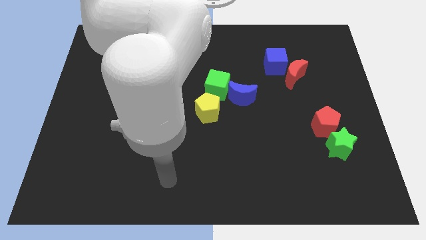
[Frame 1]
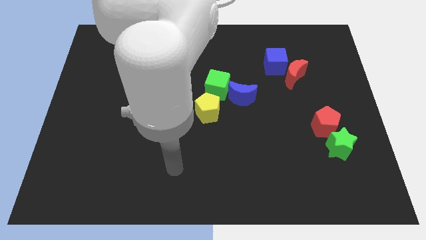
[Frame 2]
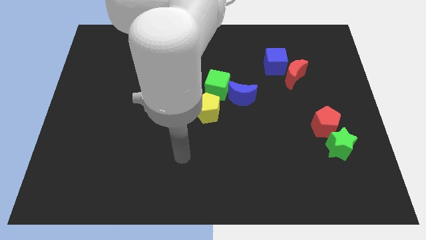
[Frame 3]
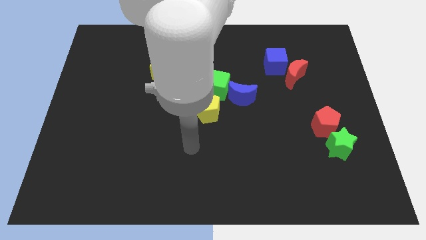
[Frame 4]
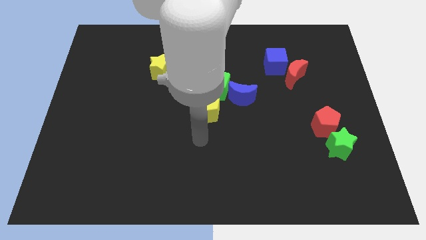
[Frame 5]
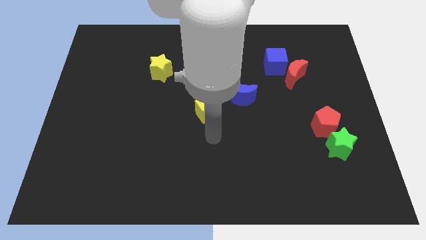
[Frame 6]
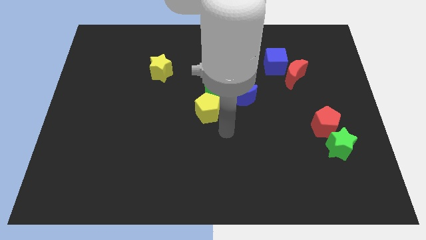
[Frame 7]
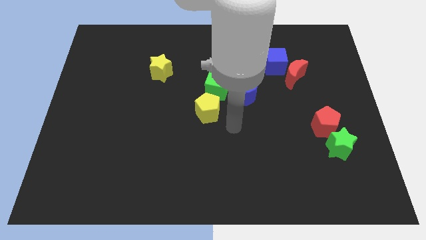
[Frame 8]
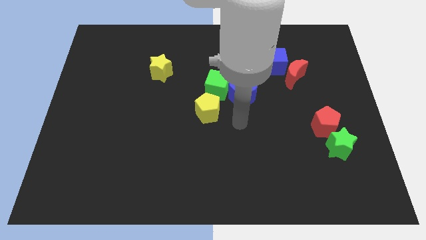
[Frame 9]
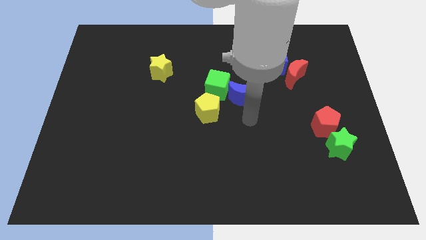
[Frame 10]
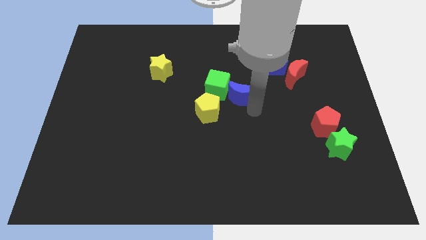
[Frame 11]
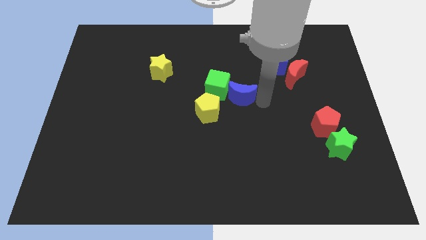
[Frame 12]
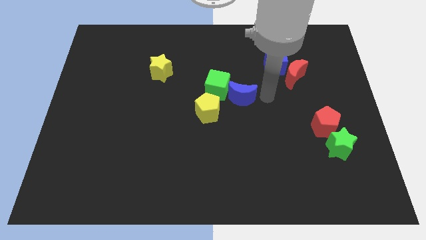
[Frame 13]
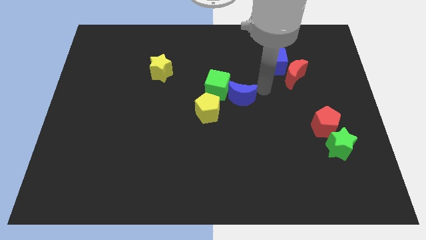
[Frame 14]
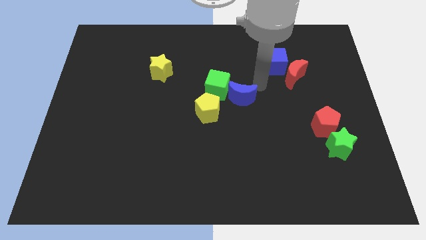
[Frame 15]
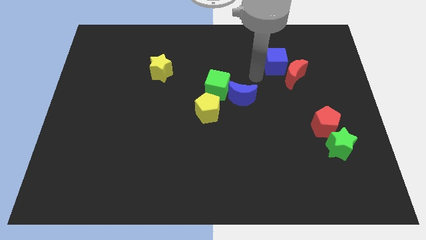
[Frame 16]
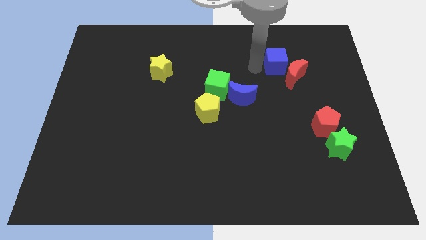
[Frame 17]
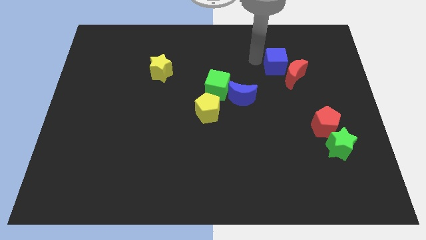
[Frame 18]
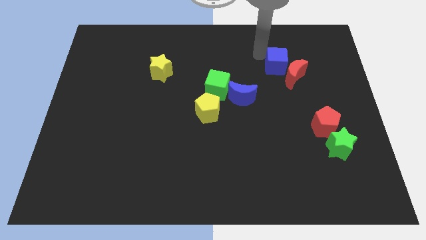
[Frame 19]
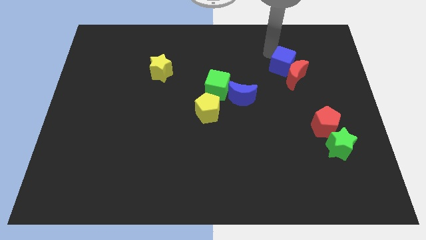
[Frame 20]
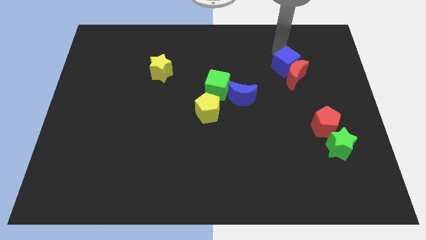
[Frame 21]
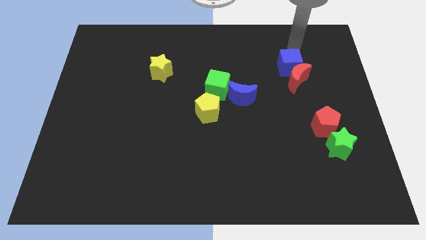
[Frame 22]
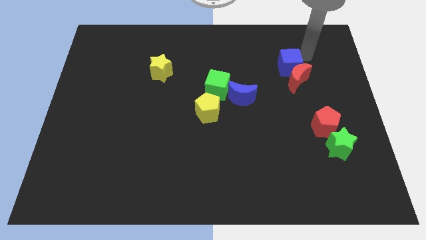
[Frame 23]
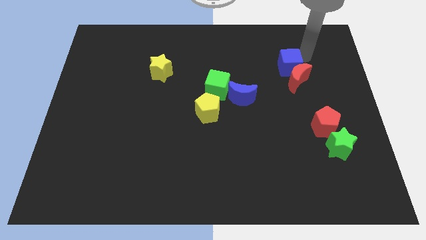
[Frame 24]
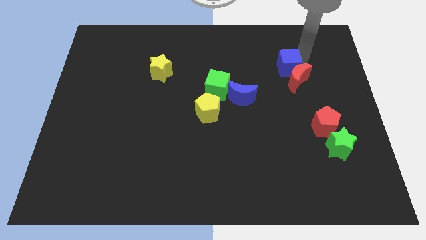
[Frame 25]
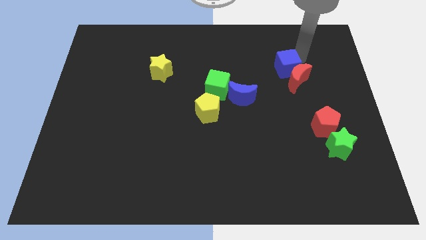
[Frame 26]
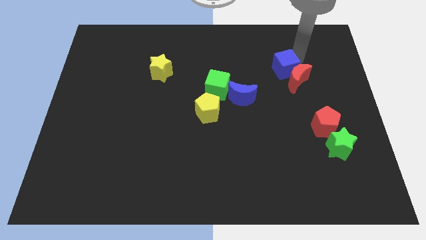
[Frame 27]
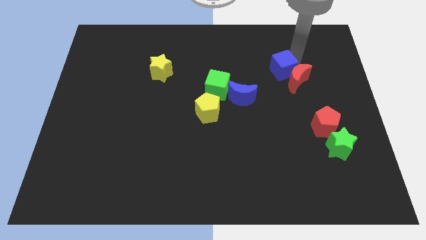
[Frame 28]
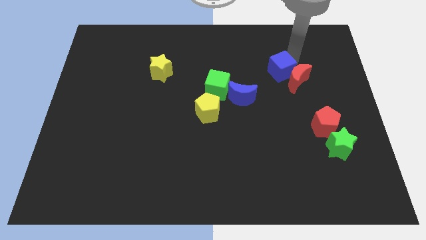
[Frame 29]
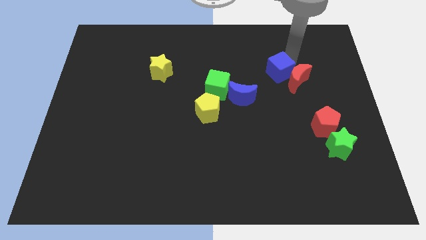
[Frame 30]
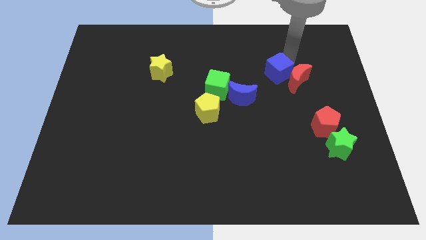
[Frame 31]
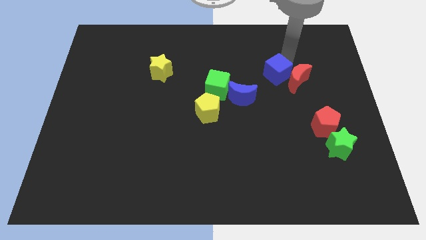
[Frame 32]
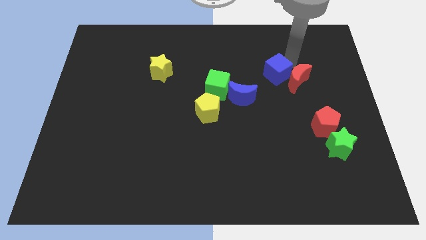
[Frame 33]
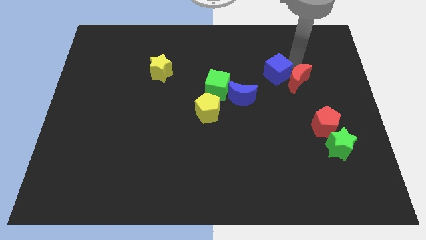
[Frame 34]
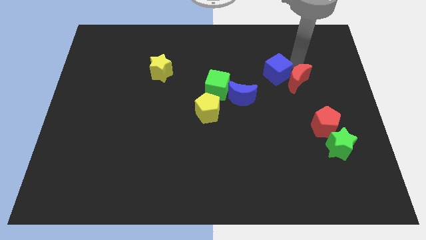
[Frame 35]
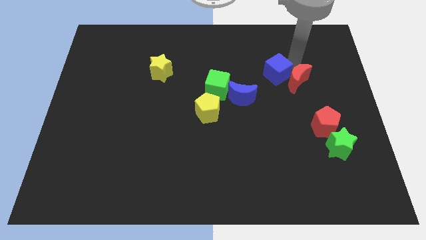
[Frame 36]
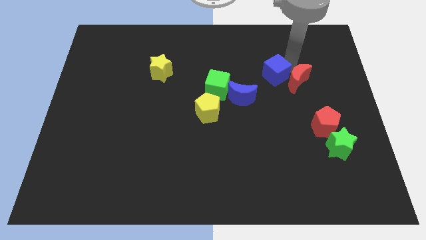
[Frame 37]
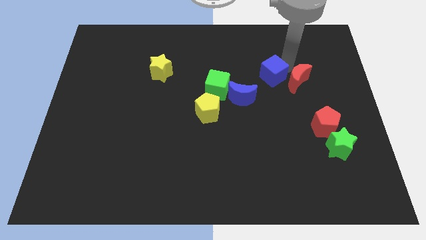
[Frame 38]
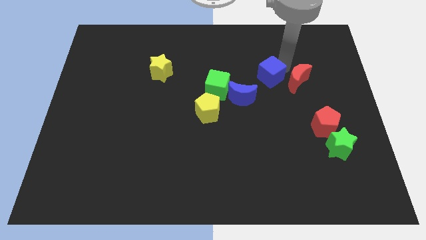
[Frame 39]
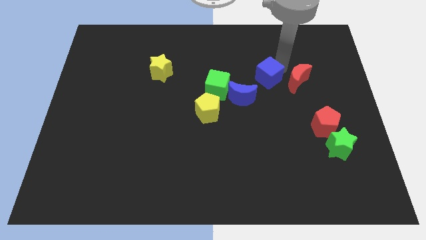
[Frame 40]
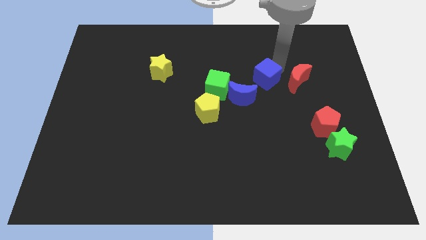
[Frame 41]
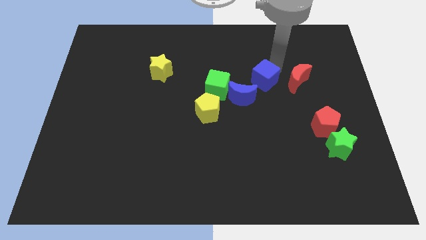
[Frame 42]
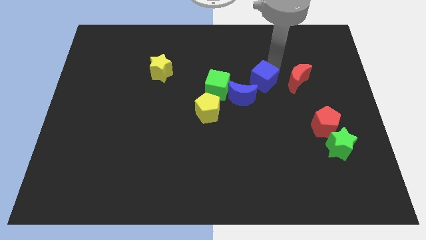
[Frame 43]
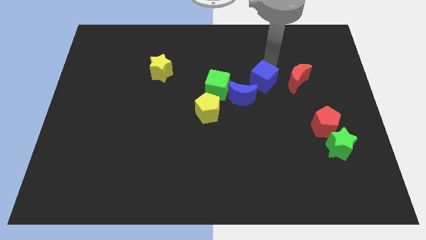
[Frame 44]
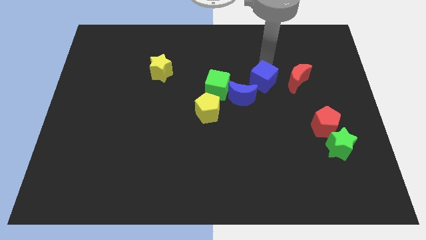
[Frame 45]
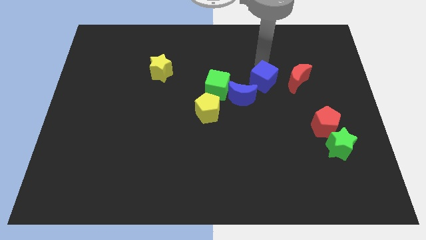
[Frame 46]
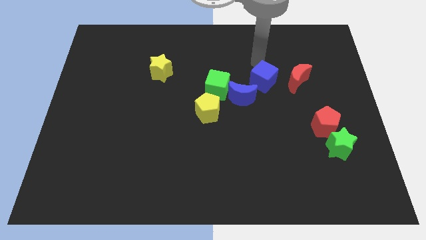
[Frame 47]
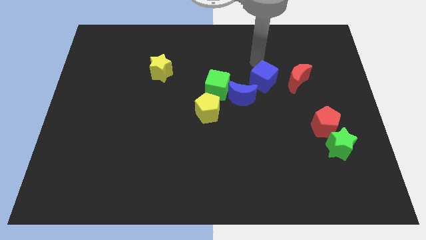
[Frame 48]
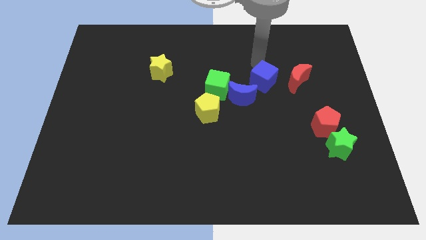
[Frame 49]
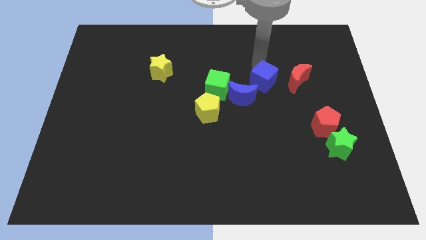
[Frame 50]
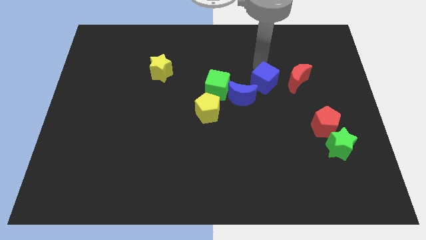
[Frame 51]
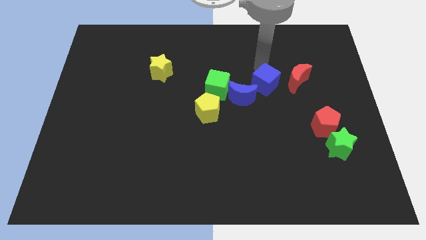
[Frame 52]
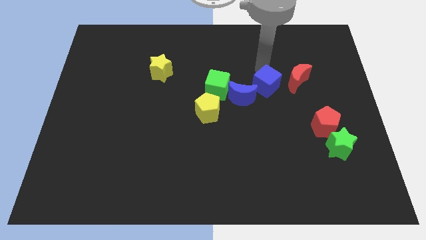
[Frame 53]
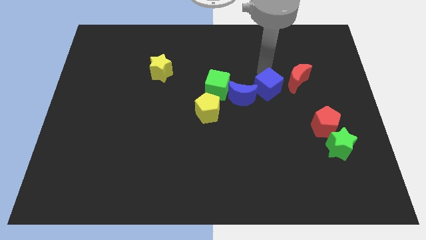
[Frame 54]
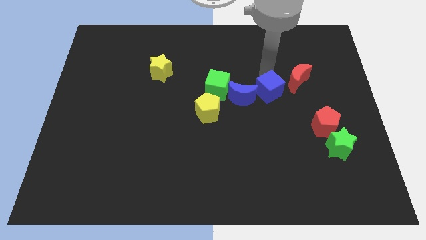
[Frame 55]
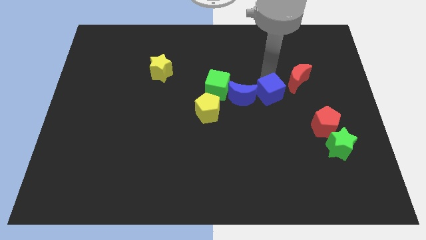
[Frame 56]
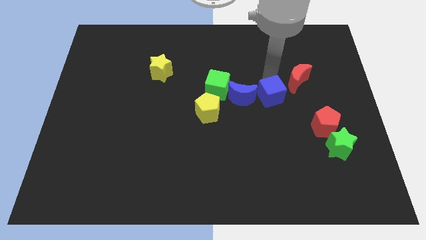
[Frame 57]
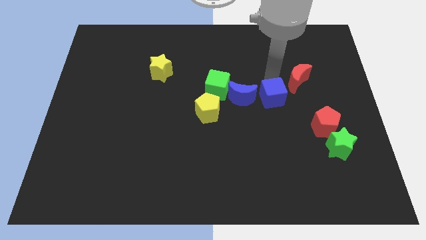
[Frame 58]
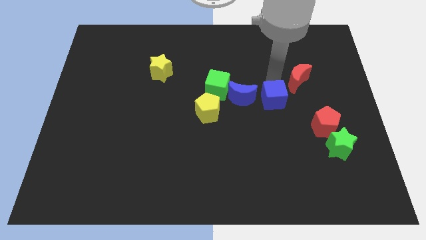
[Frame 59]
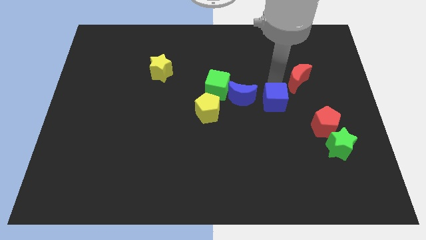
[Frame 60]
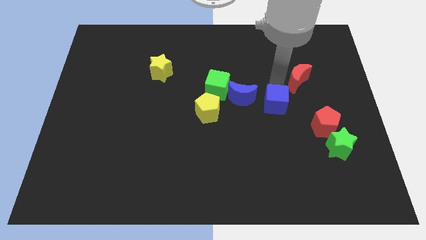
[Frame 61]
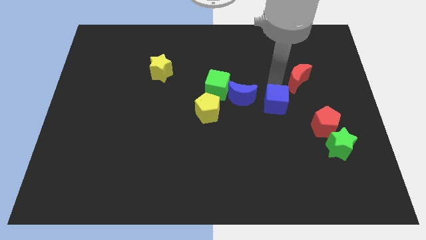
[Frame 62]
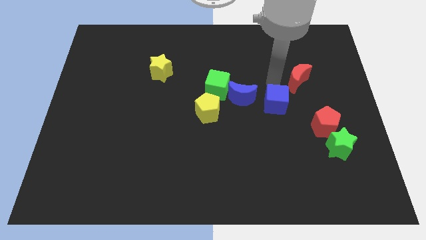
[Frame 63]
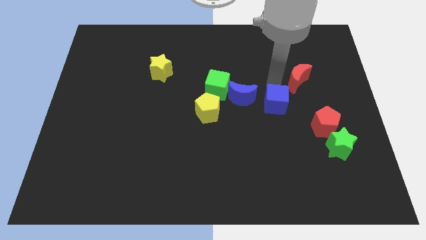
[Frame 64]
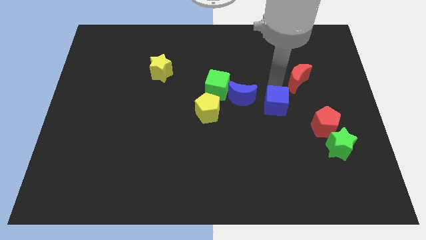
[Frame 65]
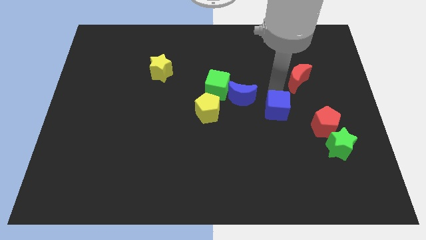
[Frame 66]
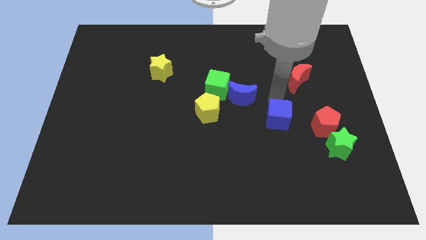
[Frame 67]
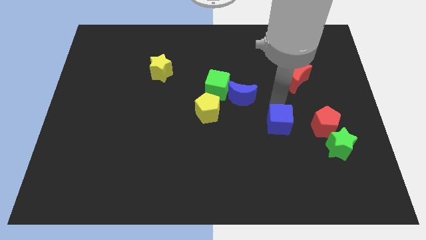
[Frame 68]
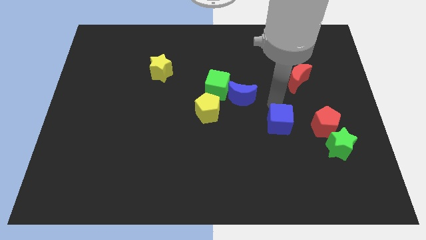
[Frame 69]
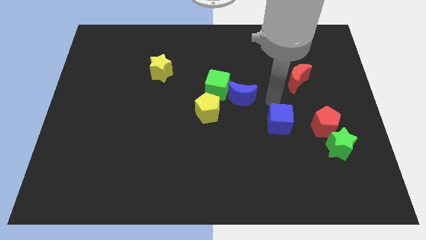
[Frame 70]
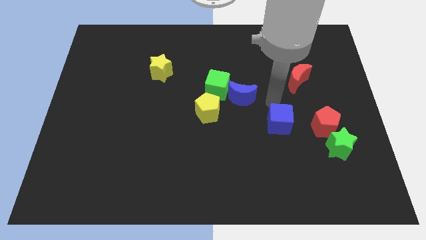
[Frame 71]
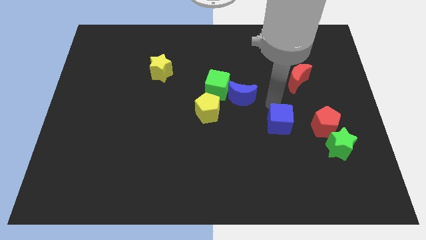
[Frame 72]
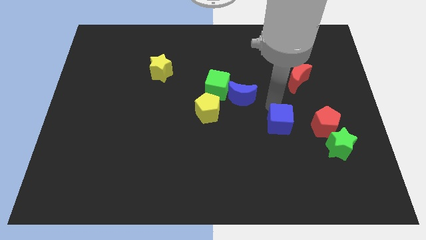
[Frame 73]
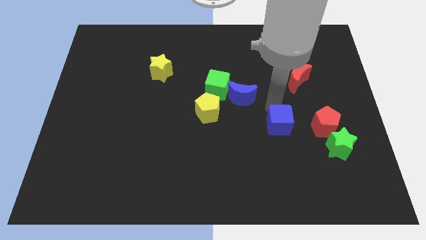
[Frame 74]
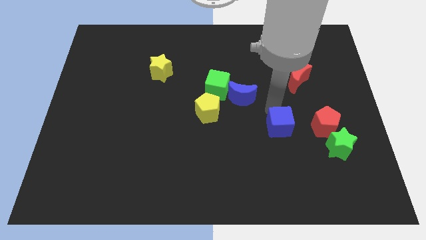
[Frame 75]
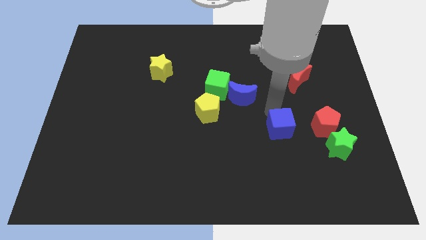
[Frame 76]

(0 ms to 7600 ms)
move the blue cube down
